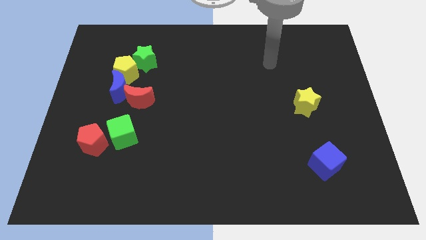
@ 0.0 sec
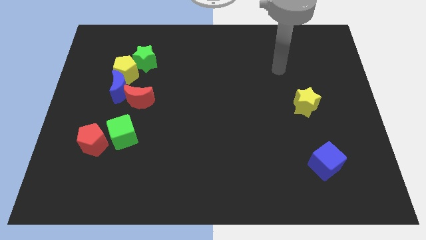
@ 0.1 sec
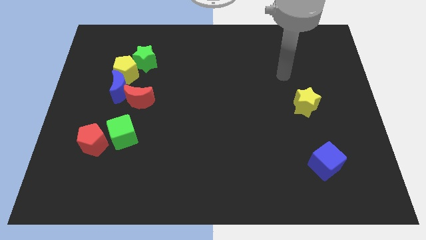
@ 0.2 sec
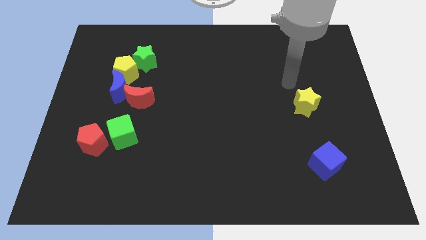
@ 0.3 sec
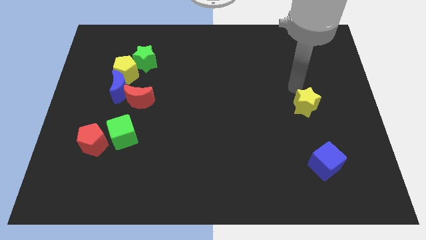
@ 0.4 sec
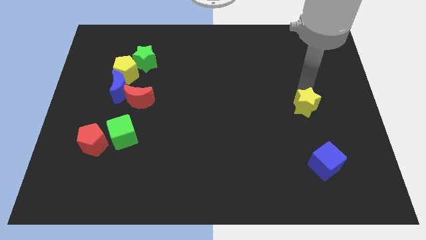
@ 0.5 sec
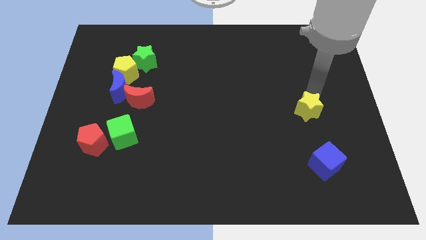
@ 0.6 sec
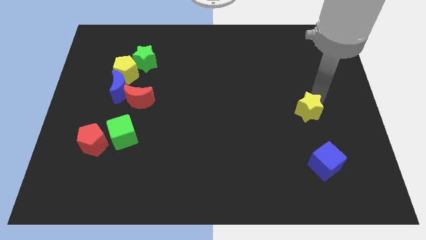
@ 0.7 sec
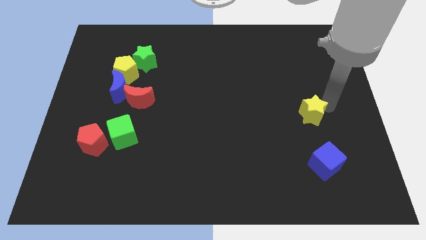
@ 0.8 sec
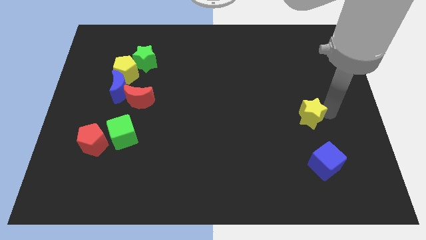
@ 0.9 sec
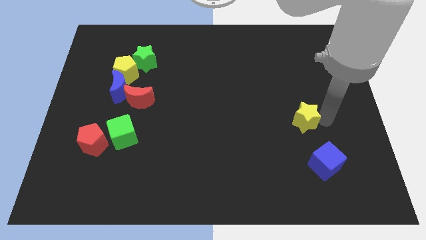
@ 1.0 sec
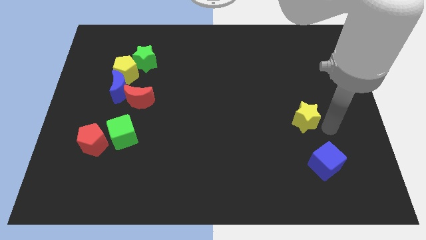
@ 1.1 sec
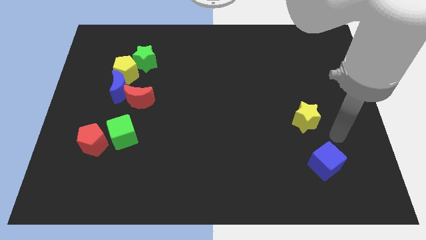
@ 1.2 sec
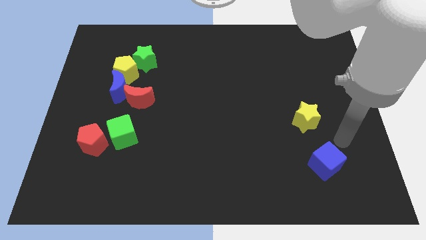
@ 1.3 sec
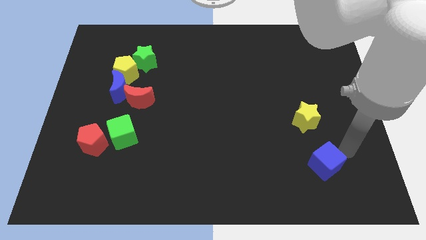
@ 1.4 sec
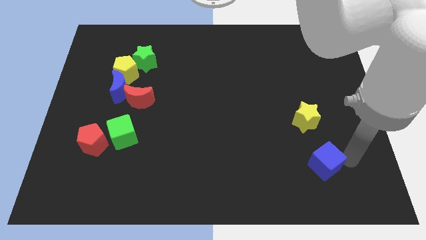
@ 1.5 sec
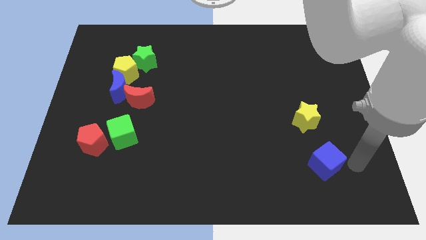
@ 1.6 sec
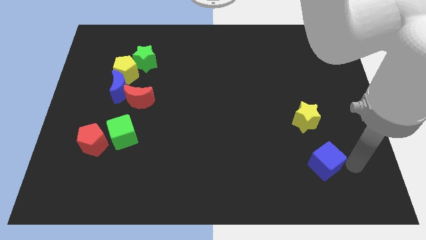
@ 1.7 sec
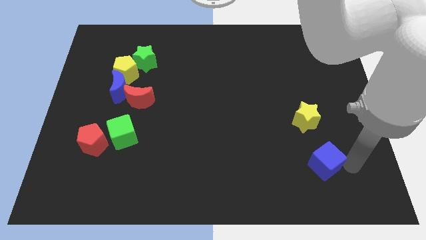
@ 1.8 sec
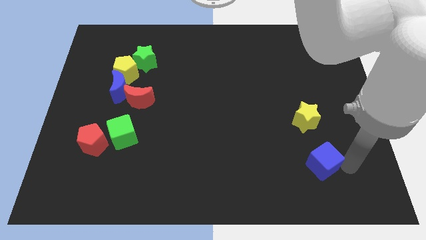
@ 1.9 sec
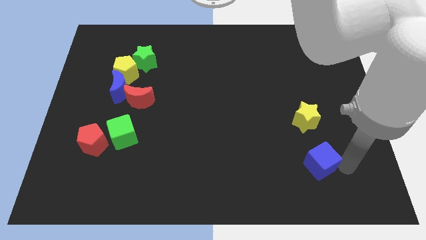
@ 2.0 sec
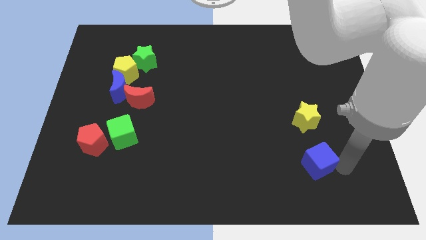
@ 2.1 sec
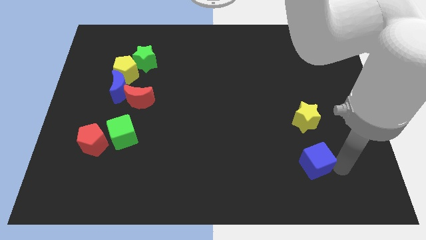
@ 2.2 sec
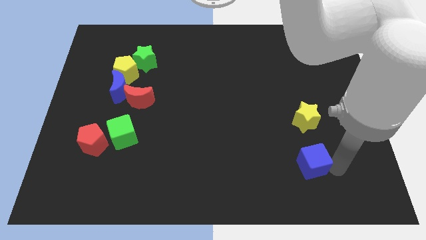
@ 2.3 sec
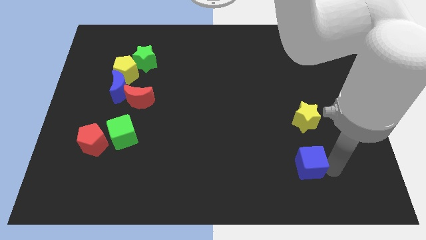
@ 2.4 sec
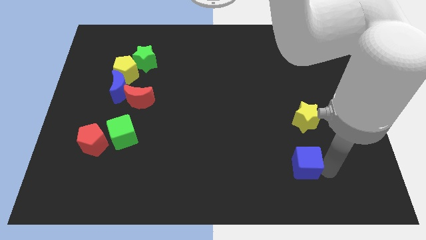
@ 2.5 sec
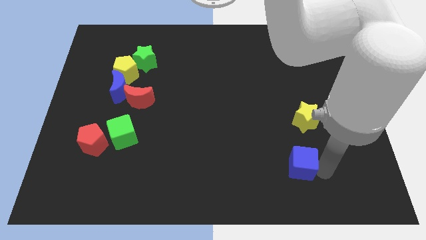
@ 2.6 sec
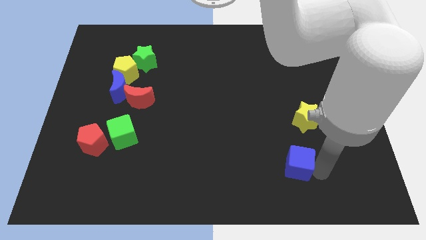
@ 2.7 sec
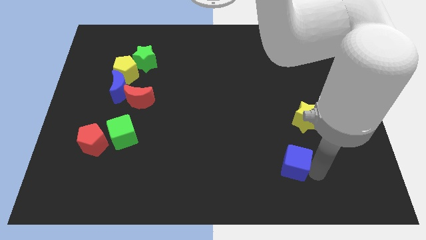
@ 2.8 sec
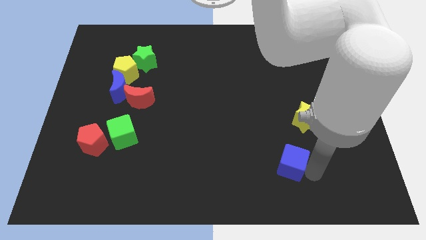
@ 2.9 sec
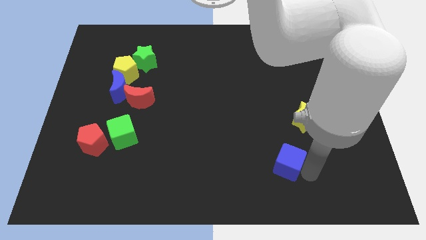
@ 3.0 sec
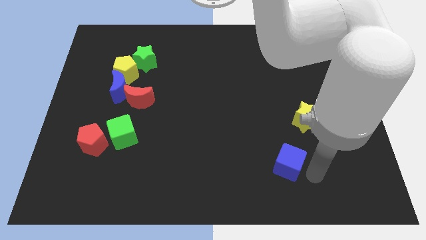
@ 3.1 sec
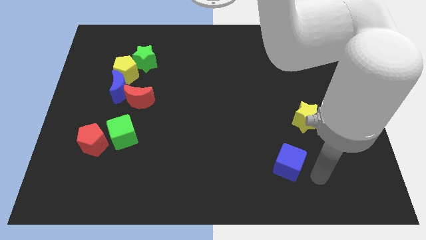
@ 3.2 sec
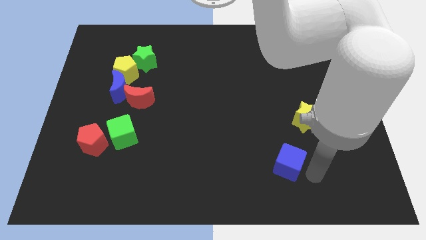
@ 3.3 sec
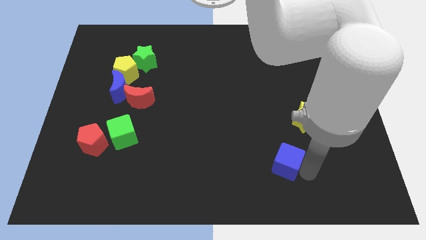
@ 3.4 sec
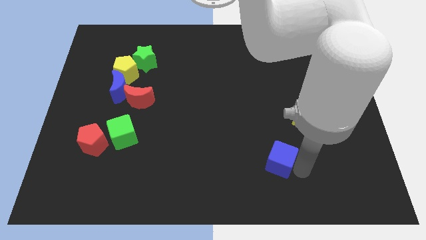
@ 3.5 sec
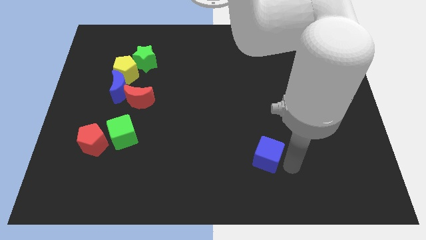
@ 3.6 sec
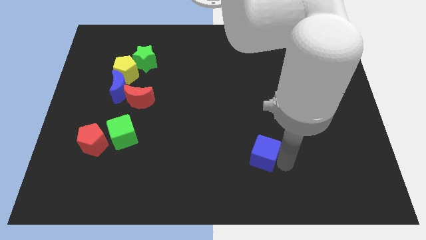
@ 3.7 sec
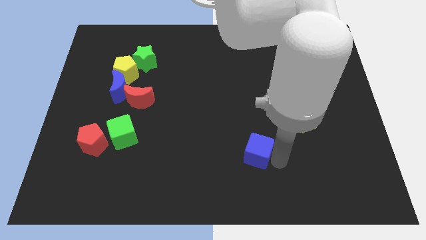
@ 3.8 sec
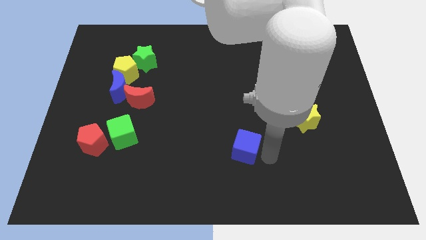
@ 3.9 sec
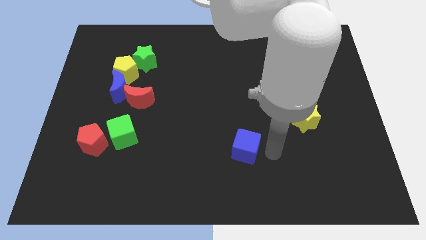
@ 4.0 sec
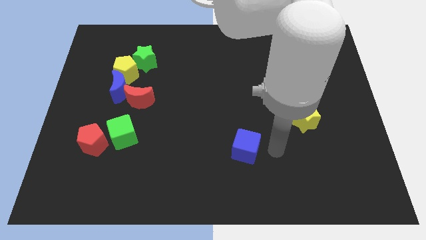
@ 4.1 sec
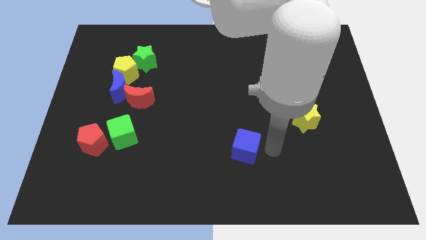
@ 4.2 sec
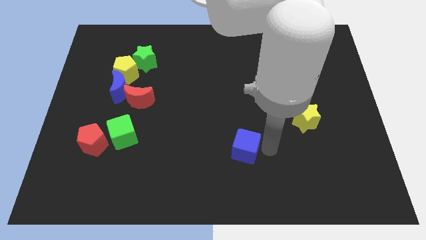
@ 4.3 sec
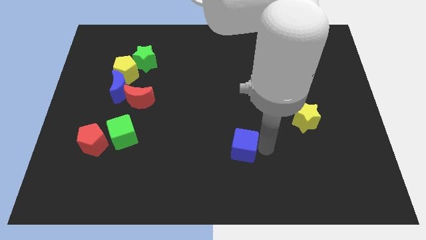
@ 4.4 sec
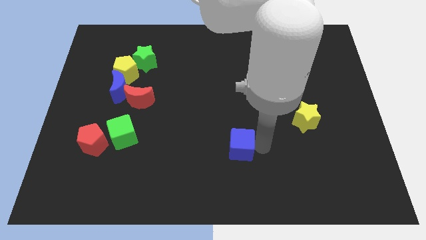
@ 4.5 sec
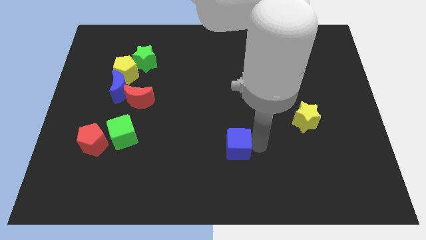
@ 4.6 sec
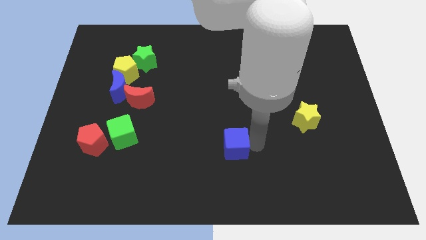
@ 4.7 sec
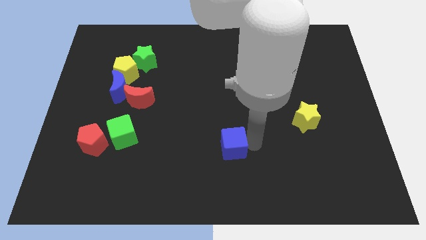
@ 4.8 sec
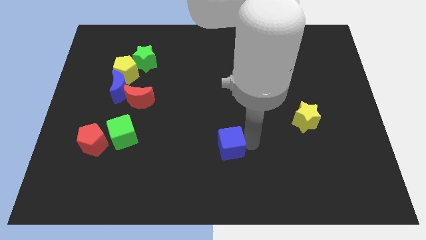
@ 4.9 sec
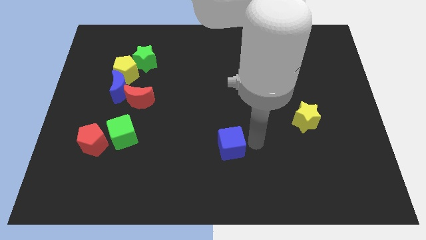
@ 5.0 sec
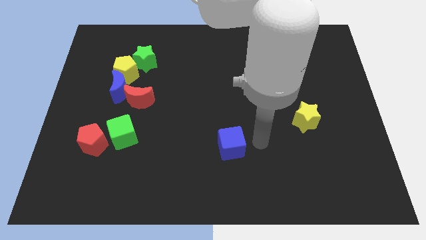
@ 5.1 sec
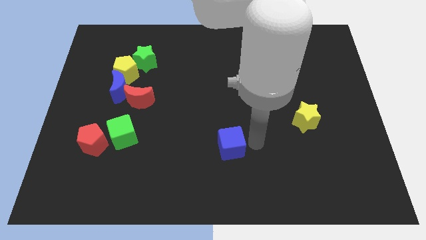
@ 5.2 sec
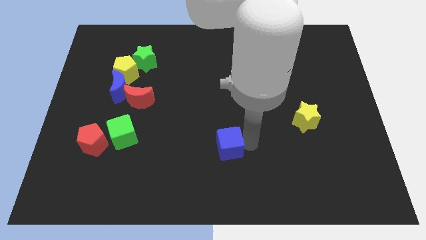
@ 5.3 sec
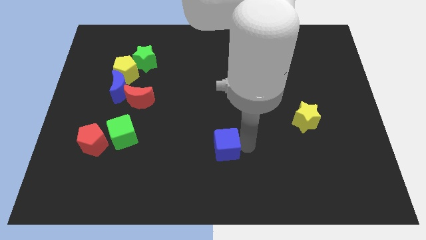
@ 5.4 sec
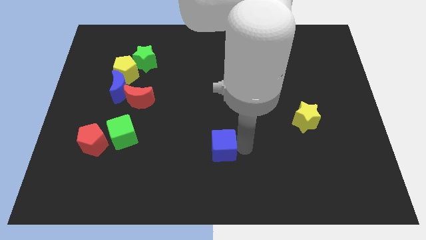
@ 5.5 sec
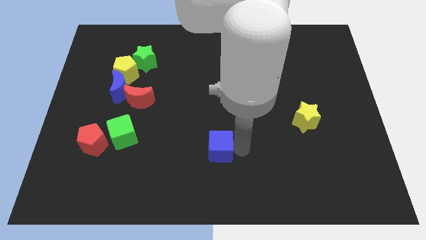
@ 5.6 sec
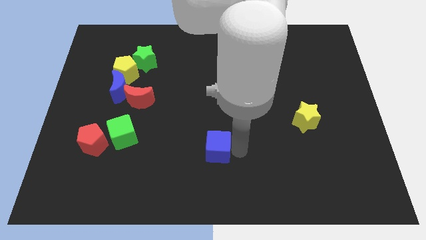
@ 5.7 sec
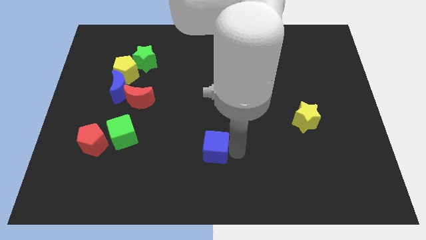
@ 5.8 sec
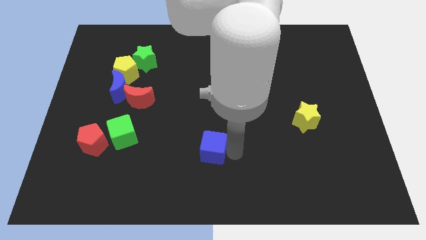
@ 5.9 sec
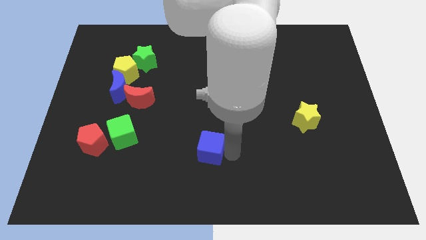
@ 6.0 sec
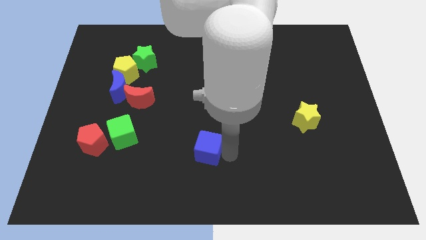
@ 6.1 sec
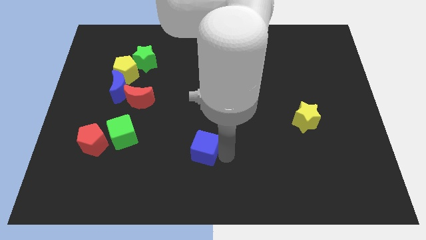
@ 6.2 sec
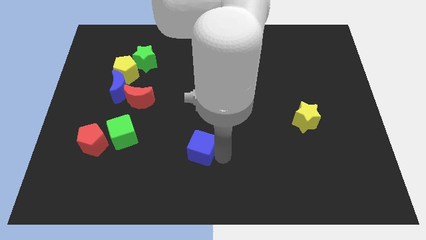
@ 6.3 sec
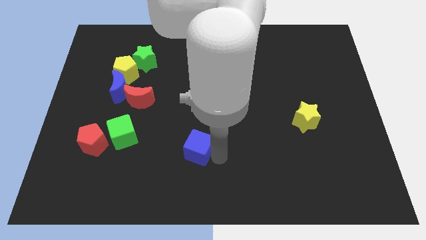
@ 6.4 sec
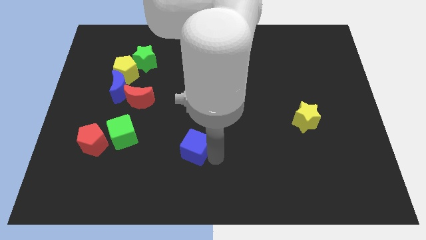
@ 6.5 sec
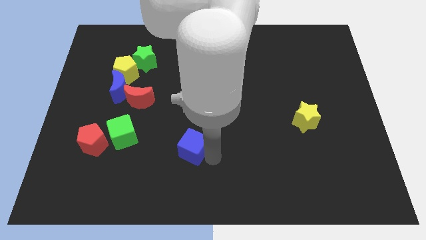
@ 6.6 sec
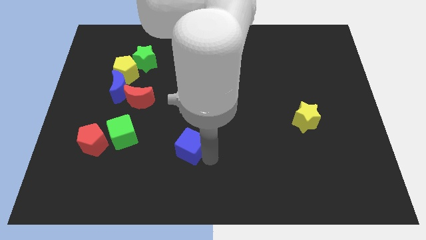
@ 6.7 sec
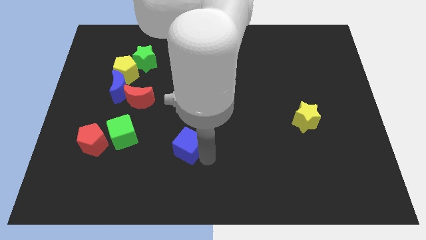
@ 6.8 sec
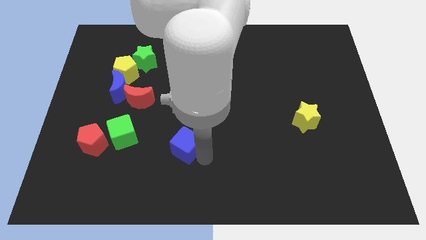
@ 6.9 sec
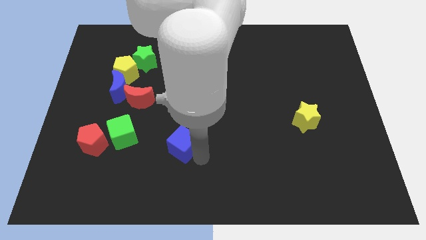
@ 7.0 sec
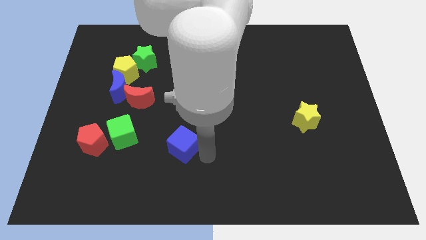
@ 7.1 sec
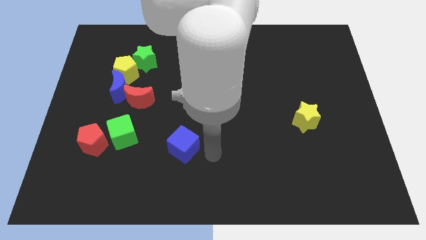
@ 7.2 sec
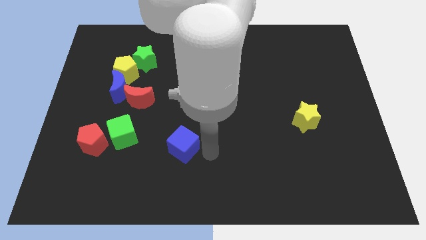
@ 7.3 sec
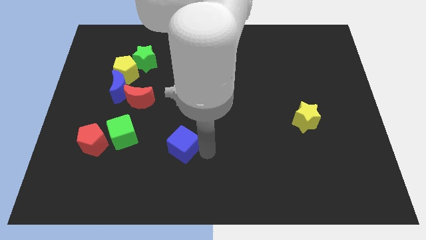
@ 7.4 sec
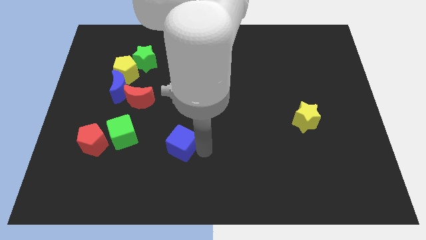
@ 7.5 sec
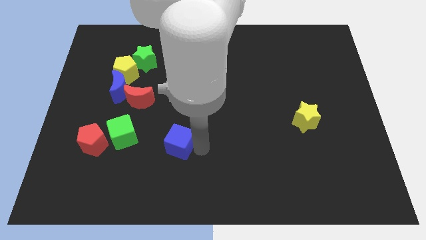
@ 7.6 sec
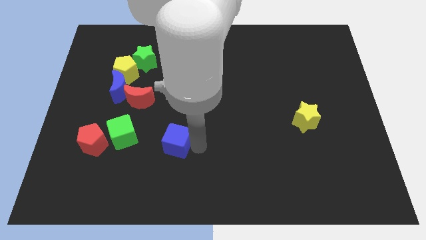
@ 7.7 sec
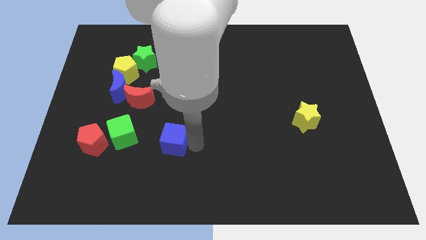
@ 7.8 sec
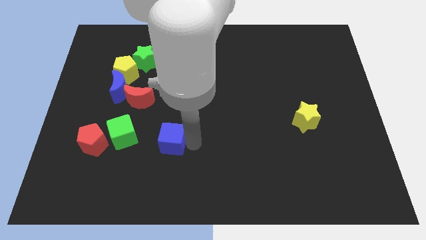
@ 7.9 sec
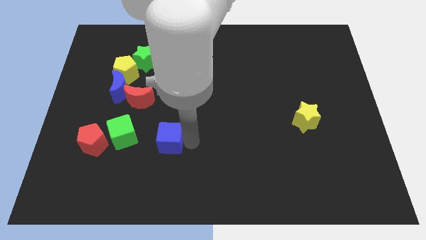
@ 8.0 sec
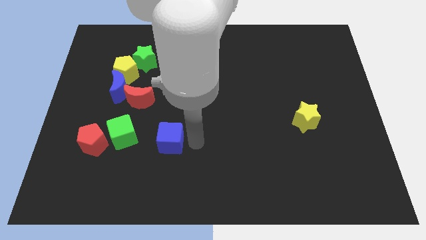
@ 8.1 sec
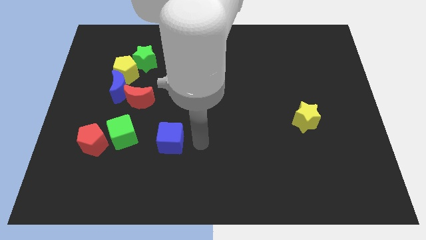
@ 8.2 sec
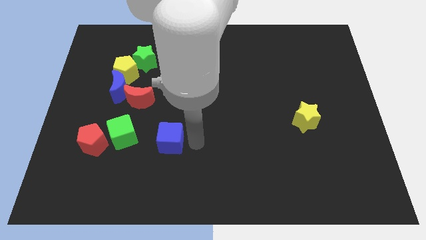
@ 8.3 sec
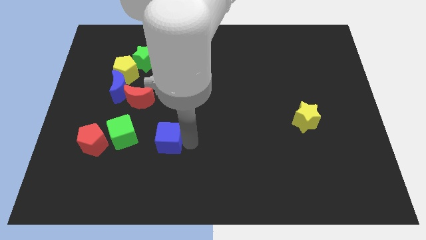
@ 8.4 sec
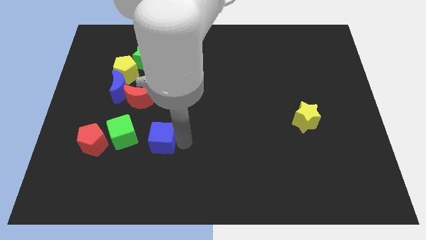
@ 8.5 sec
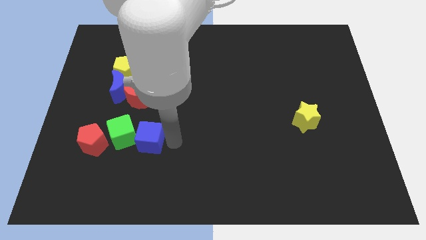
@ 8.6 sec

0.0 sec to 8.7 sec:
push the blue cube to the green cube
